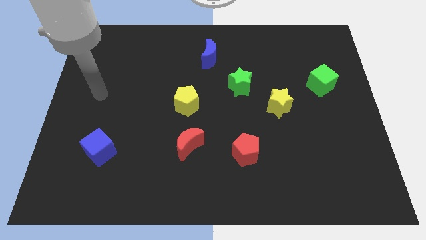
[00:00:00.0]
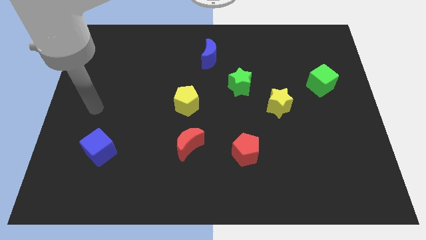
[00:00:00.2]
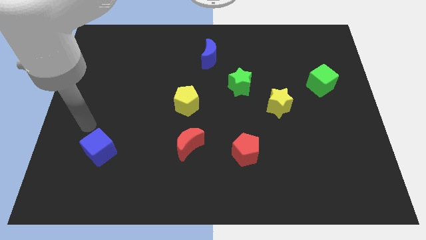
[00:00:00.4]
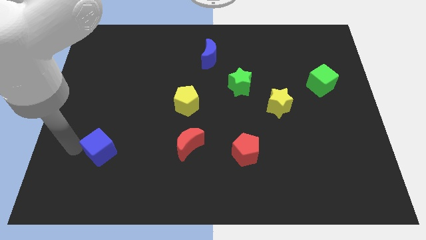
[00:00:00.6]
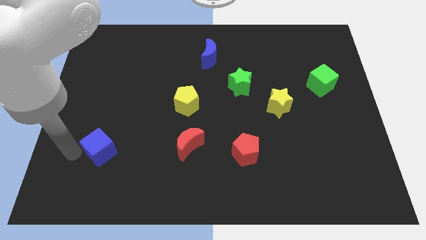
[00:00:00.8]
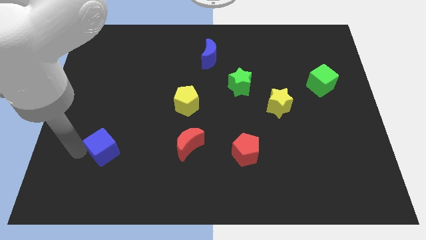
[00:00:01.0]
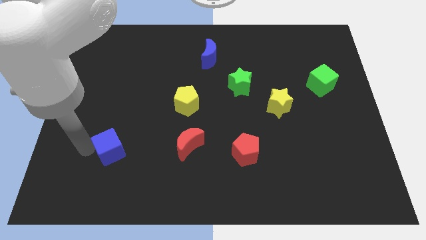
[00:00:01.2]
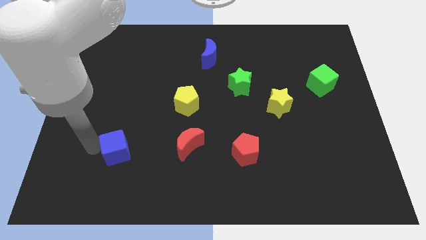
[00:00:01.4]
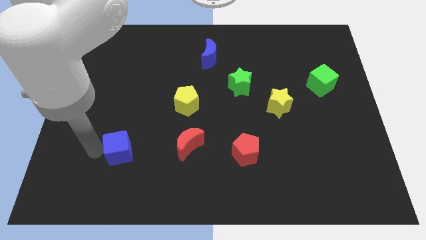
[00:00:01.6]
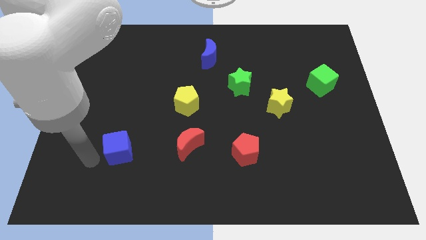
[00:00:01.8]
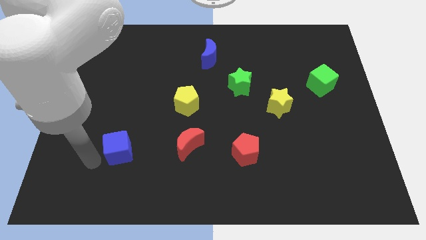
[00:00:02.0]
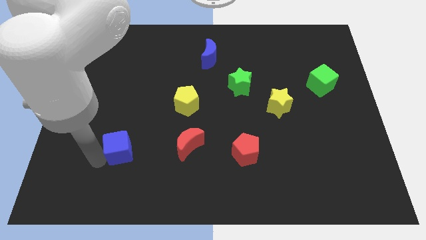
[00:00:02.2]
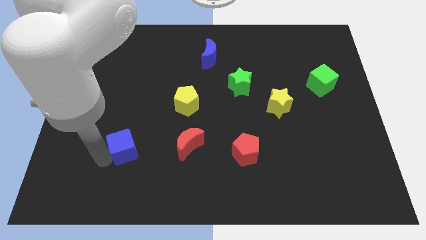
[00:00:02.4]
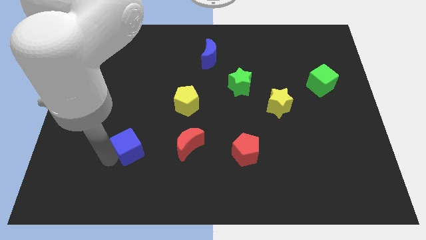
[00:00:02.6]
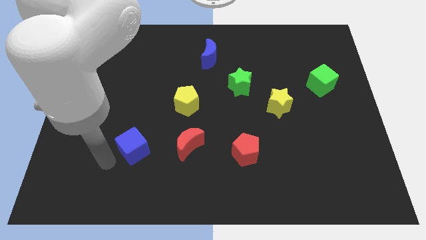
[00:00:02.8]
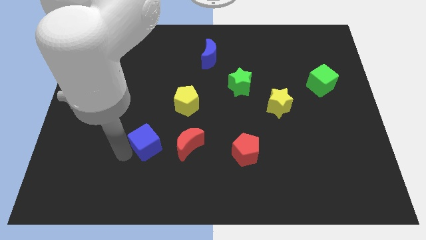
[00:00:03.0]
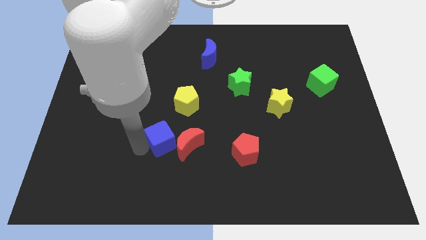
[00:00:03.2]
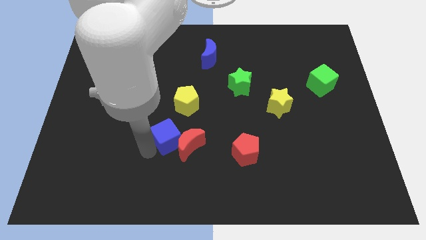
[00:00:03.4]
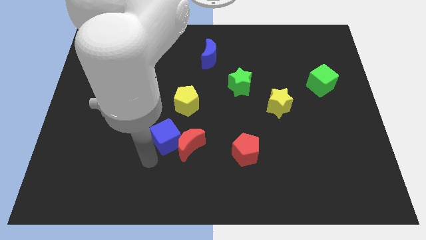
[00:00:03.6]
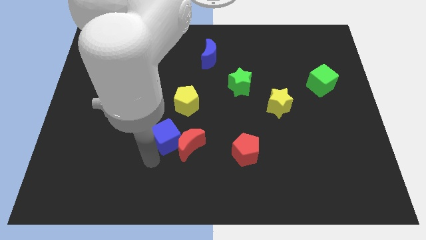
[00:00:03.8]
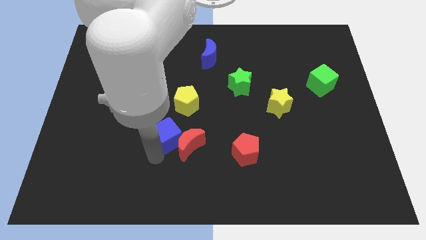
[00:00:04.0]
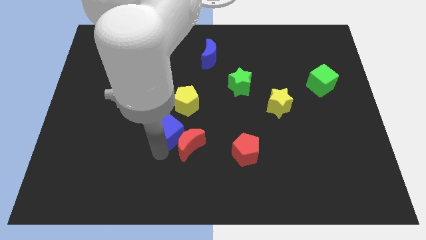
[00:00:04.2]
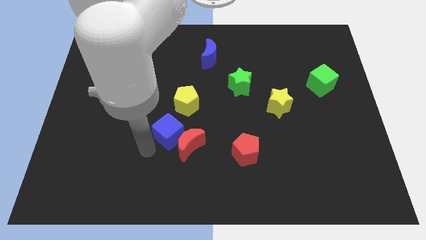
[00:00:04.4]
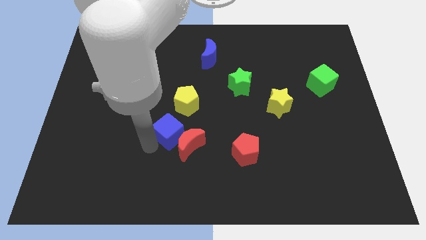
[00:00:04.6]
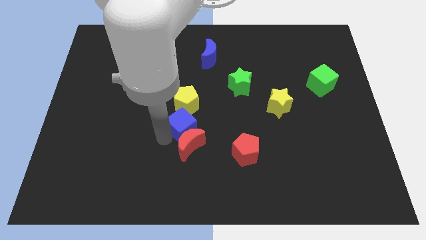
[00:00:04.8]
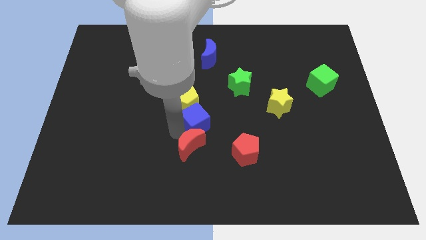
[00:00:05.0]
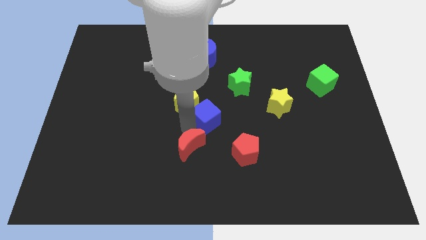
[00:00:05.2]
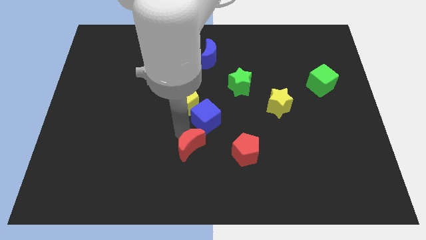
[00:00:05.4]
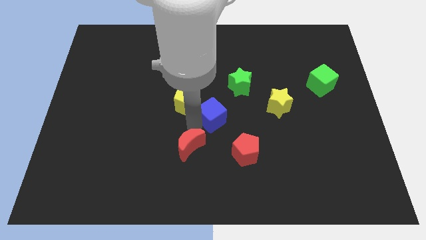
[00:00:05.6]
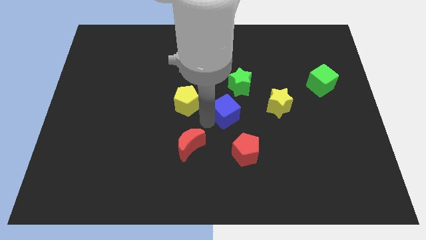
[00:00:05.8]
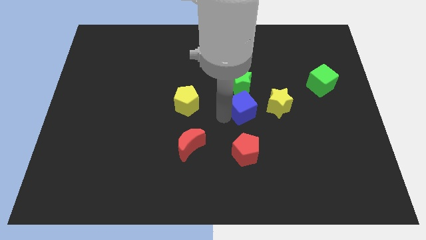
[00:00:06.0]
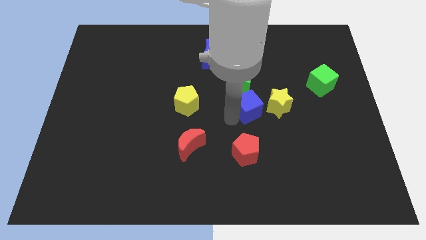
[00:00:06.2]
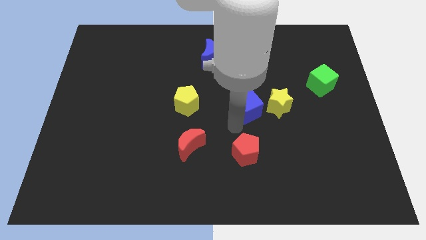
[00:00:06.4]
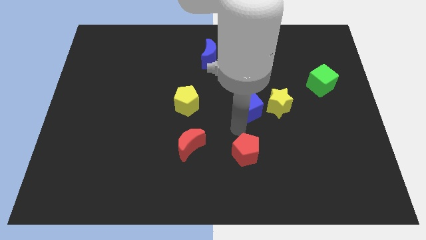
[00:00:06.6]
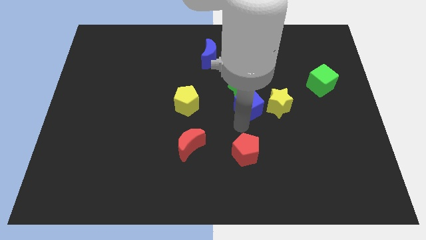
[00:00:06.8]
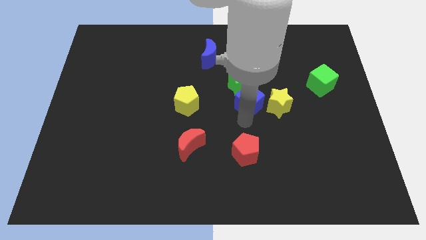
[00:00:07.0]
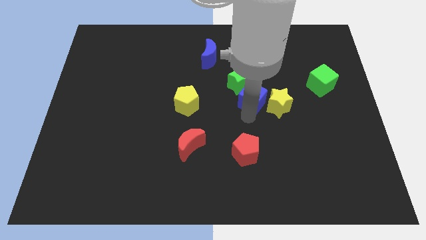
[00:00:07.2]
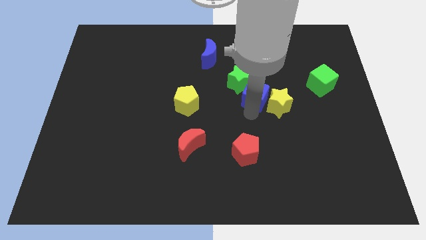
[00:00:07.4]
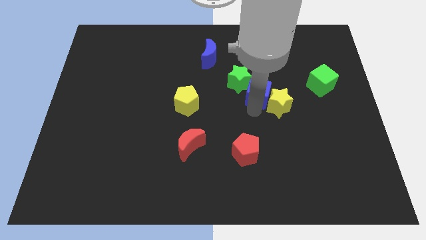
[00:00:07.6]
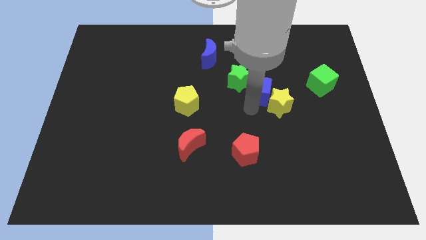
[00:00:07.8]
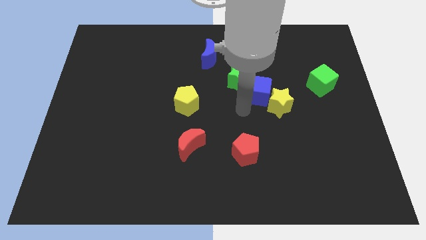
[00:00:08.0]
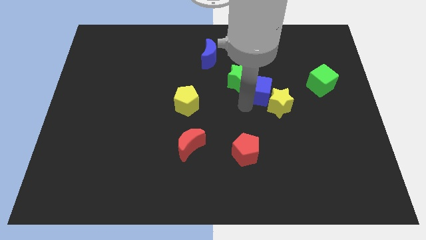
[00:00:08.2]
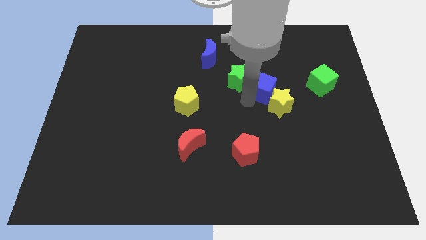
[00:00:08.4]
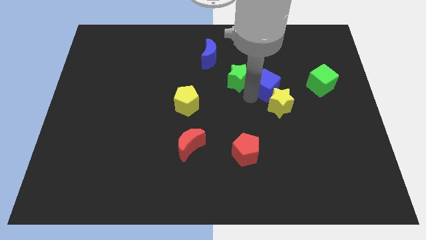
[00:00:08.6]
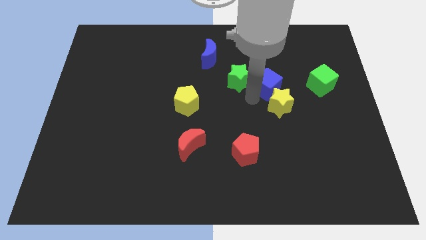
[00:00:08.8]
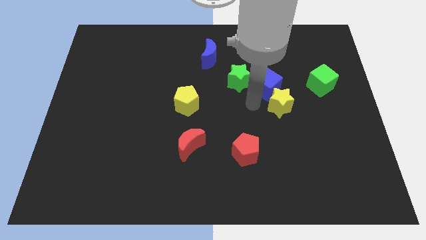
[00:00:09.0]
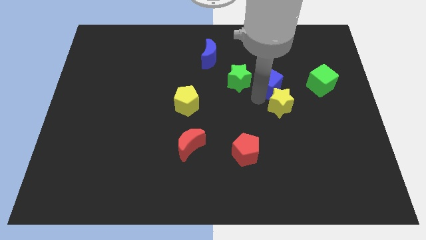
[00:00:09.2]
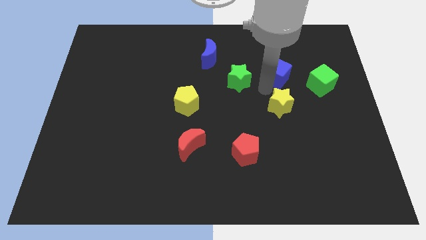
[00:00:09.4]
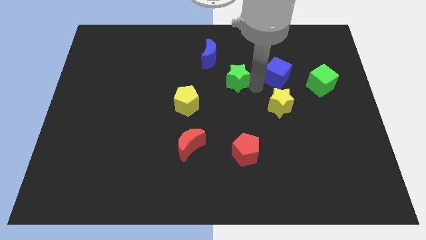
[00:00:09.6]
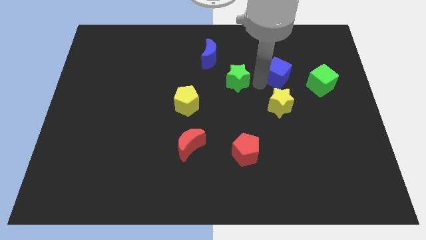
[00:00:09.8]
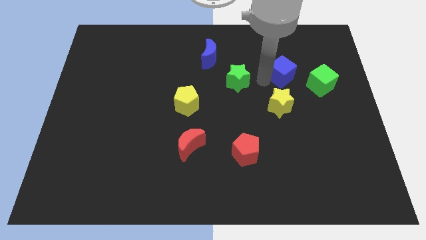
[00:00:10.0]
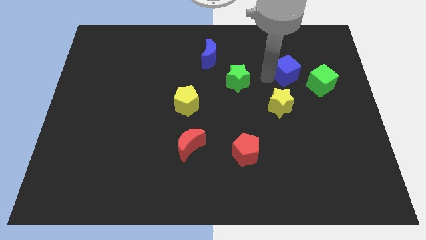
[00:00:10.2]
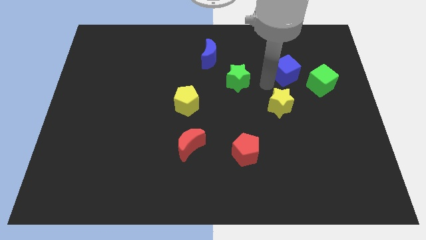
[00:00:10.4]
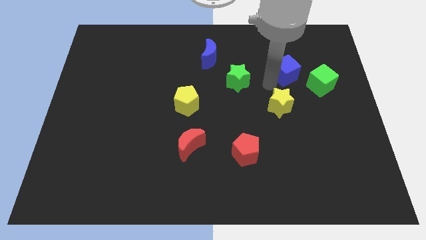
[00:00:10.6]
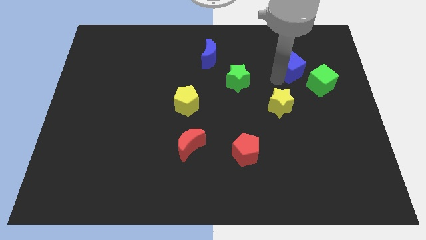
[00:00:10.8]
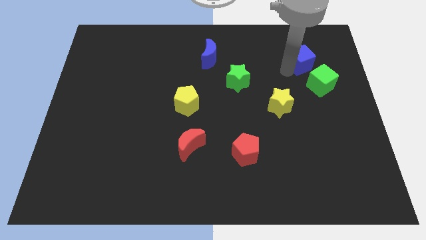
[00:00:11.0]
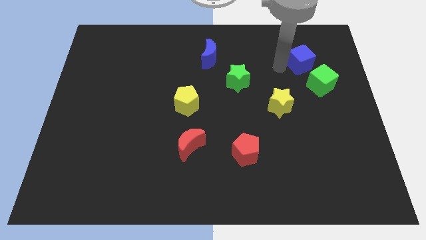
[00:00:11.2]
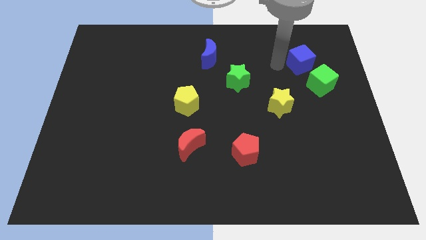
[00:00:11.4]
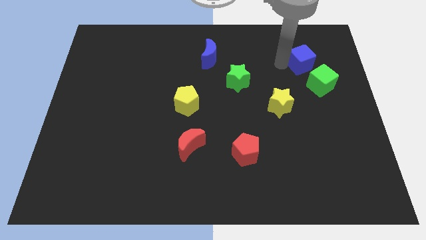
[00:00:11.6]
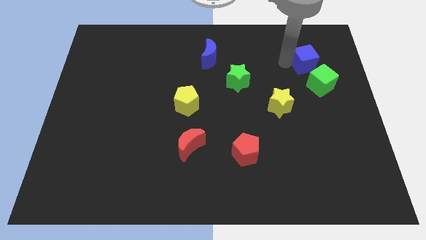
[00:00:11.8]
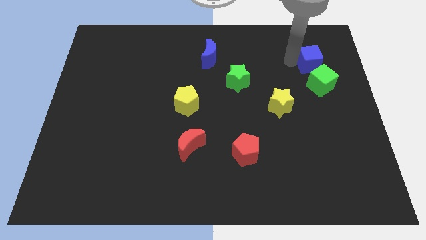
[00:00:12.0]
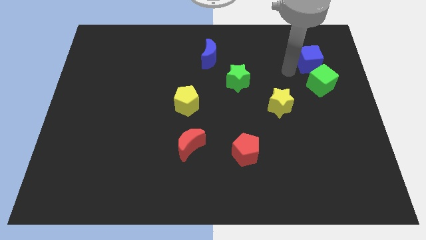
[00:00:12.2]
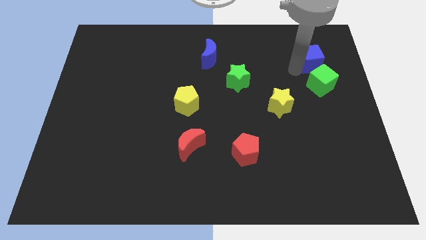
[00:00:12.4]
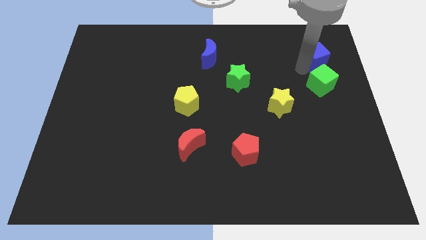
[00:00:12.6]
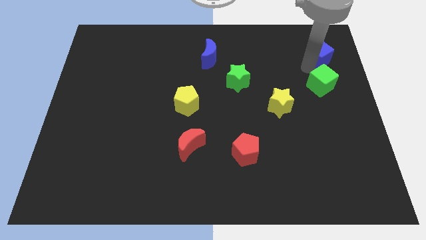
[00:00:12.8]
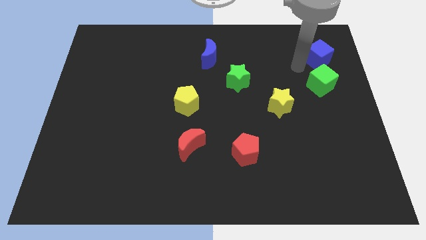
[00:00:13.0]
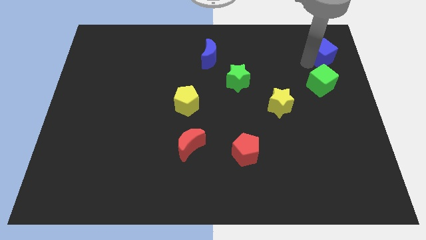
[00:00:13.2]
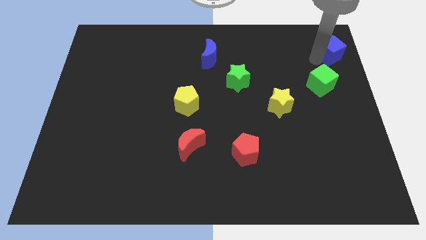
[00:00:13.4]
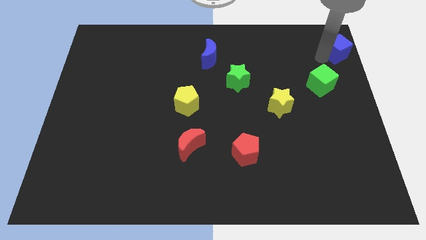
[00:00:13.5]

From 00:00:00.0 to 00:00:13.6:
move the blue cube to the top right of the board

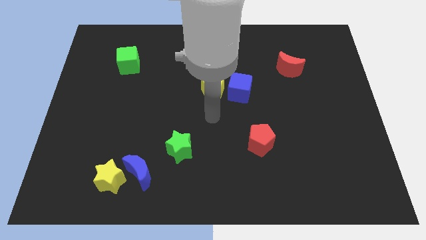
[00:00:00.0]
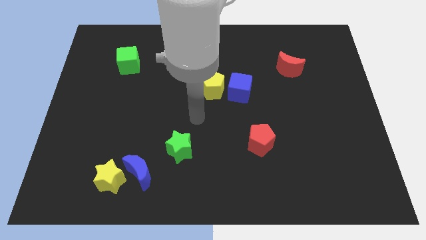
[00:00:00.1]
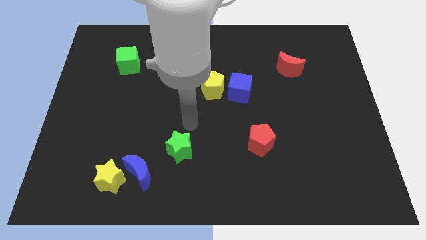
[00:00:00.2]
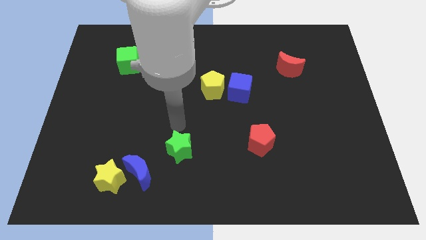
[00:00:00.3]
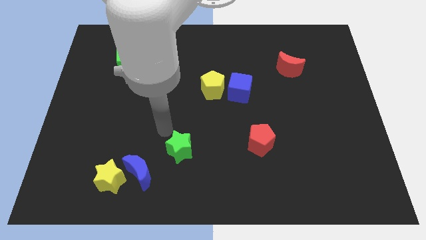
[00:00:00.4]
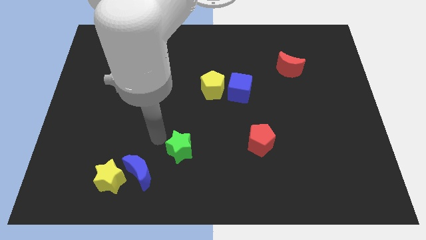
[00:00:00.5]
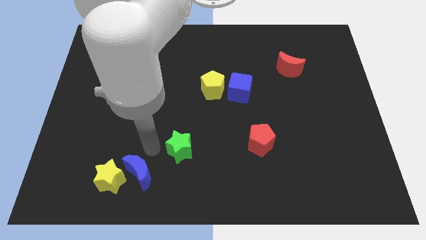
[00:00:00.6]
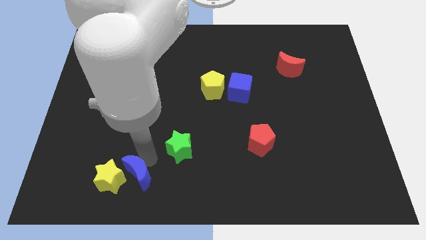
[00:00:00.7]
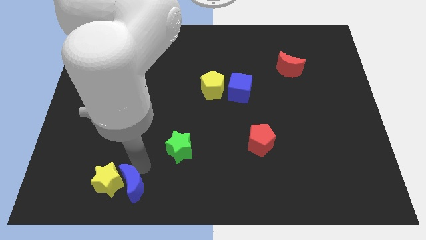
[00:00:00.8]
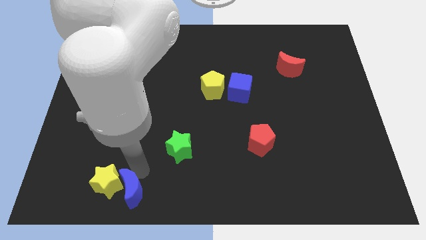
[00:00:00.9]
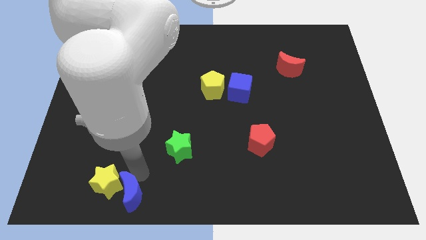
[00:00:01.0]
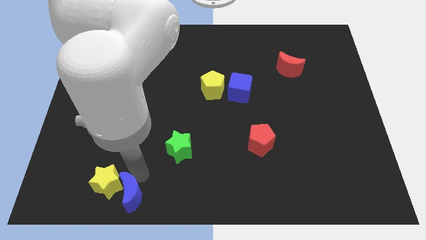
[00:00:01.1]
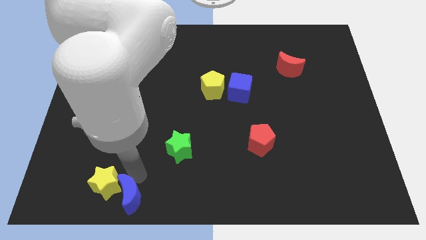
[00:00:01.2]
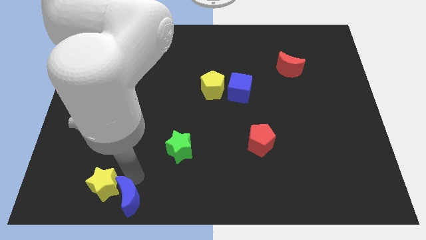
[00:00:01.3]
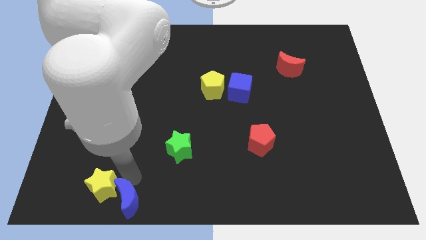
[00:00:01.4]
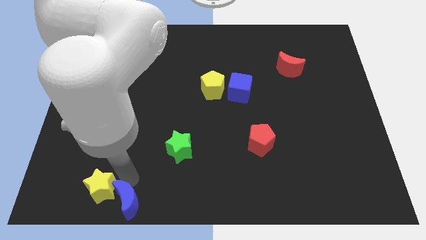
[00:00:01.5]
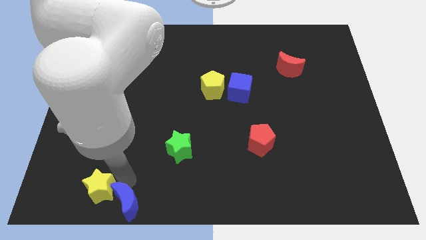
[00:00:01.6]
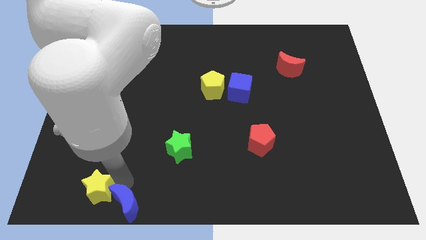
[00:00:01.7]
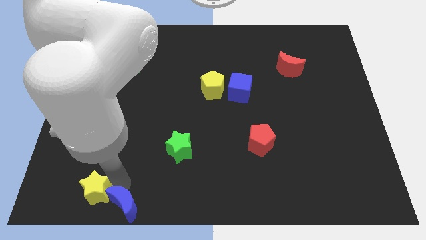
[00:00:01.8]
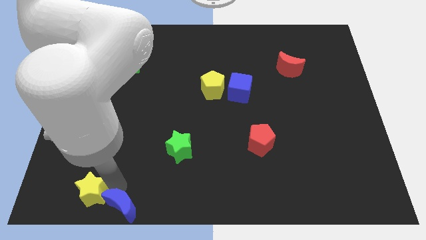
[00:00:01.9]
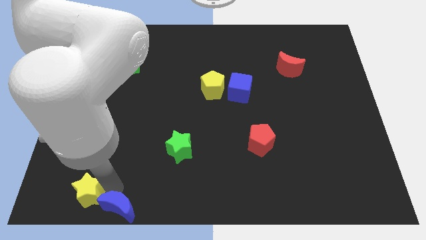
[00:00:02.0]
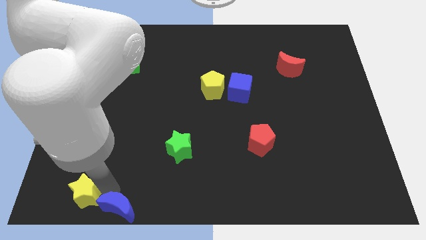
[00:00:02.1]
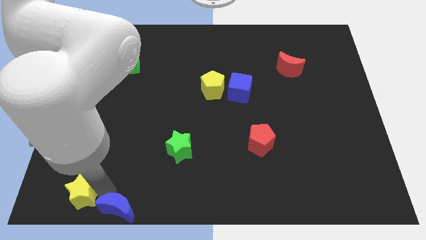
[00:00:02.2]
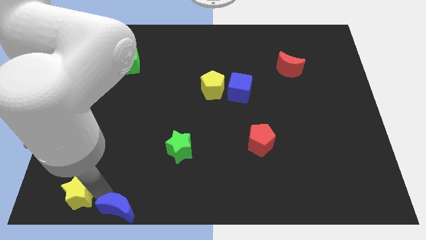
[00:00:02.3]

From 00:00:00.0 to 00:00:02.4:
slide the yellow star to the bottom left corner
